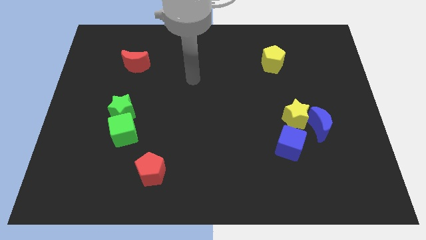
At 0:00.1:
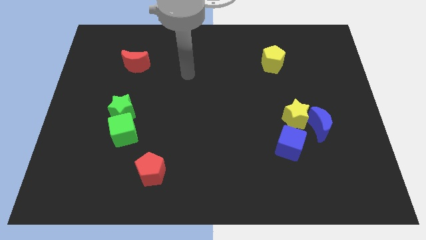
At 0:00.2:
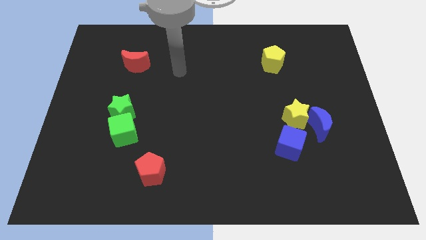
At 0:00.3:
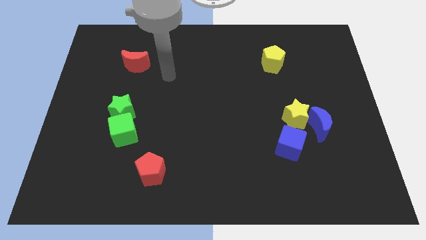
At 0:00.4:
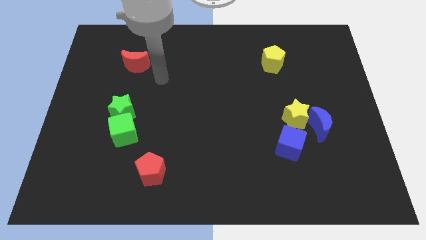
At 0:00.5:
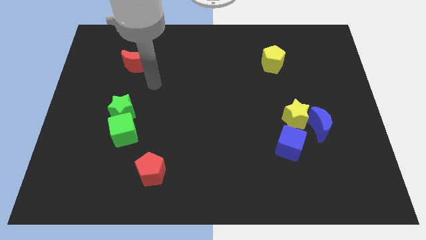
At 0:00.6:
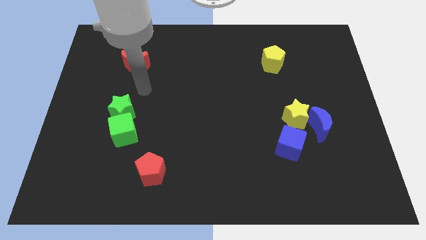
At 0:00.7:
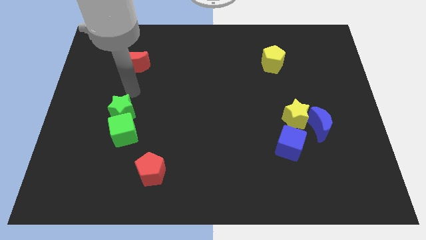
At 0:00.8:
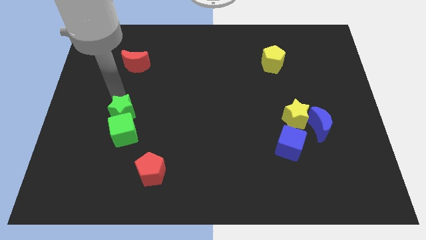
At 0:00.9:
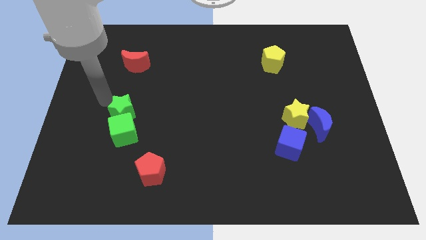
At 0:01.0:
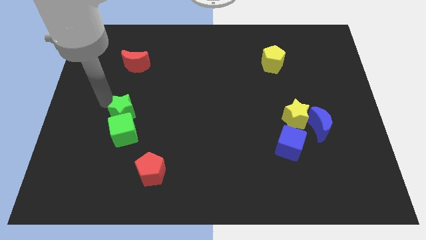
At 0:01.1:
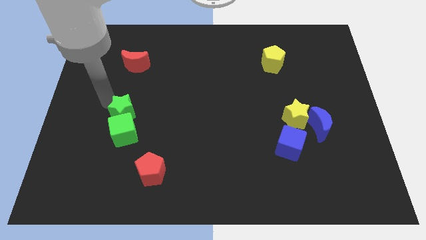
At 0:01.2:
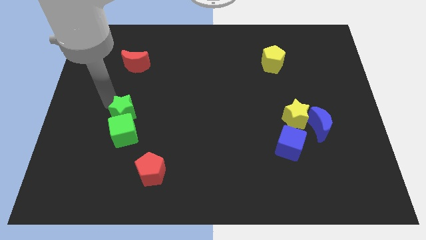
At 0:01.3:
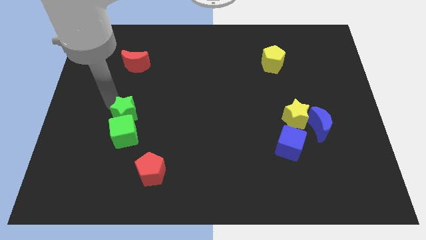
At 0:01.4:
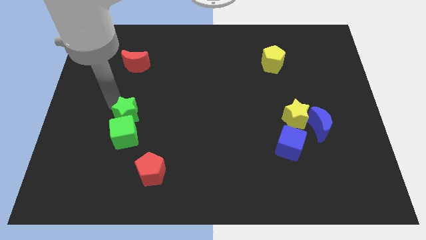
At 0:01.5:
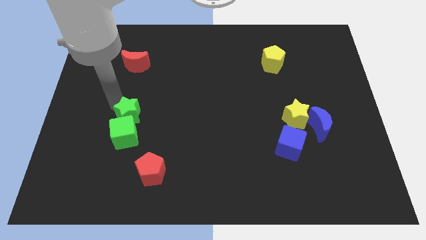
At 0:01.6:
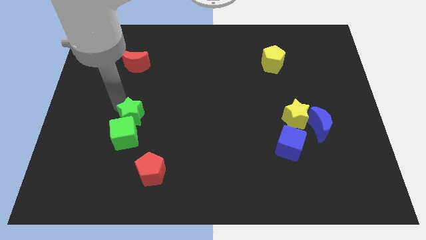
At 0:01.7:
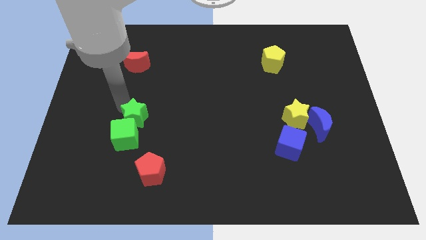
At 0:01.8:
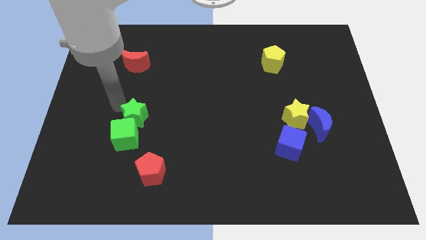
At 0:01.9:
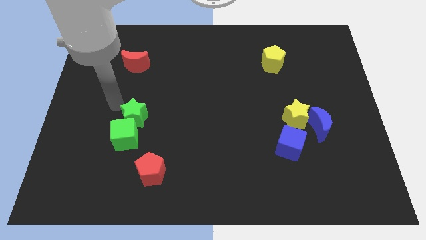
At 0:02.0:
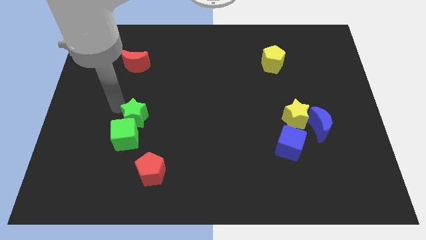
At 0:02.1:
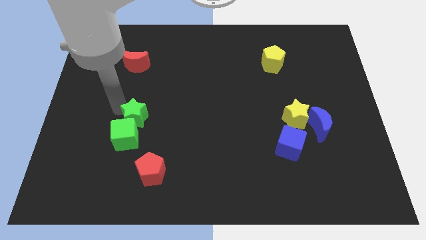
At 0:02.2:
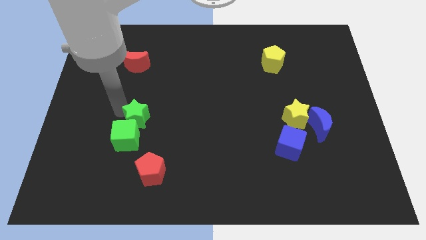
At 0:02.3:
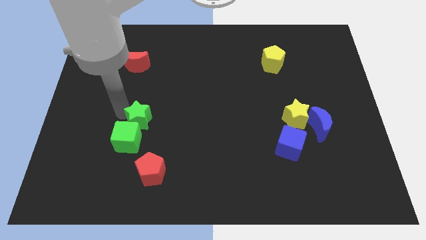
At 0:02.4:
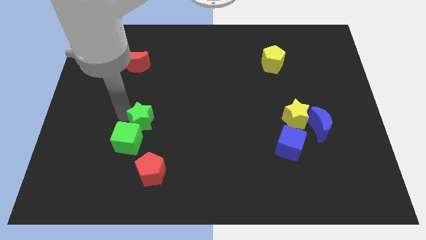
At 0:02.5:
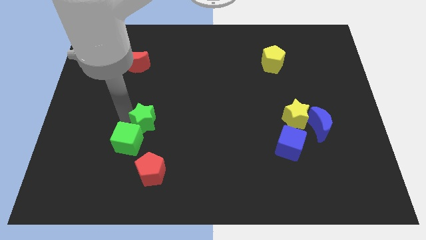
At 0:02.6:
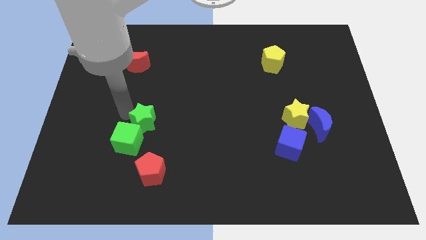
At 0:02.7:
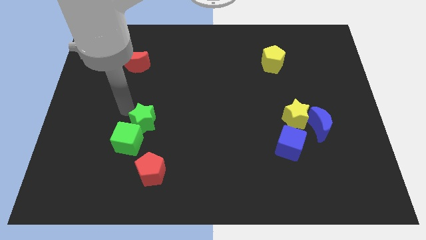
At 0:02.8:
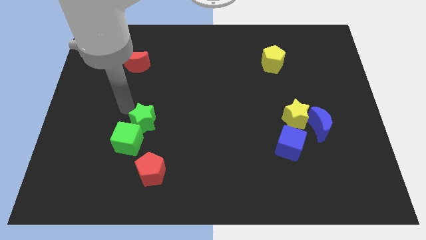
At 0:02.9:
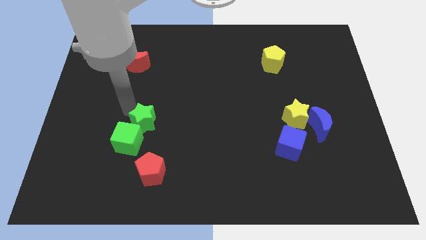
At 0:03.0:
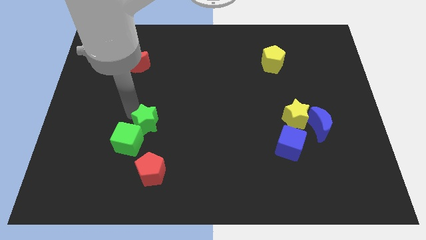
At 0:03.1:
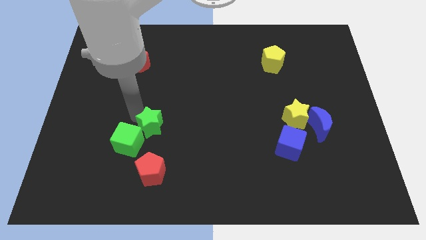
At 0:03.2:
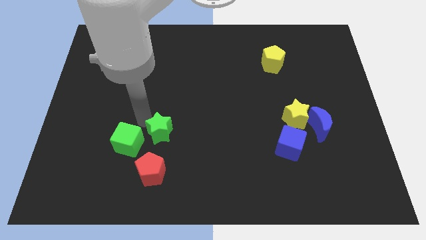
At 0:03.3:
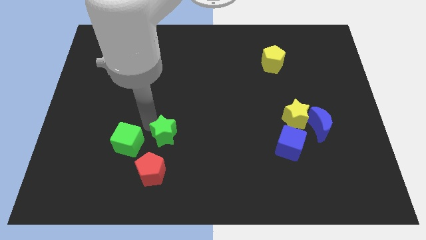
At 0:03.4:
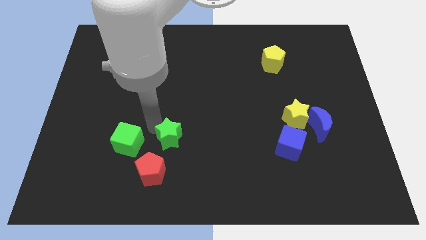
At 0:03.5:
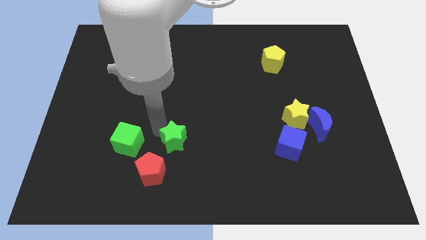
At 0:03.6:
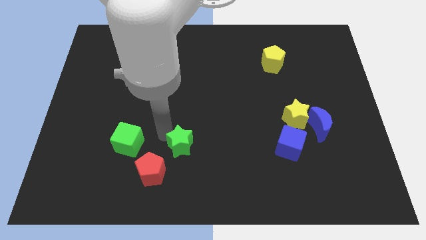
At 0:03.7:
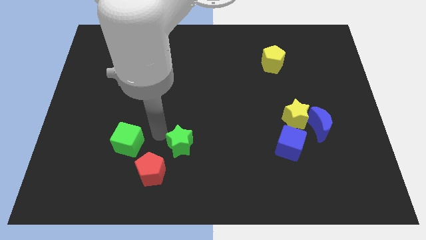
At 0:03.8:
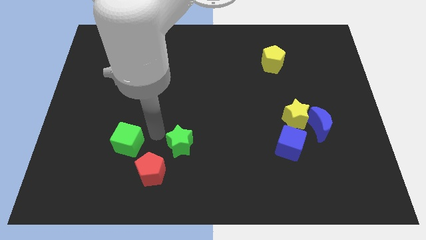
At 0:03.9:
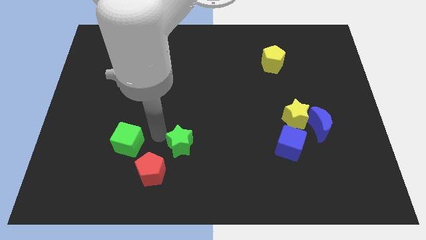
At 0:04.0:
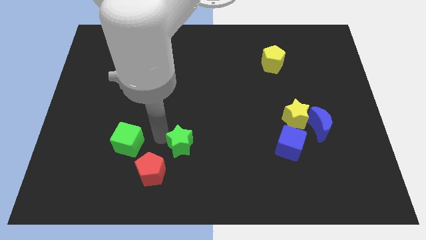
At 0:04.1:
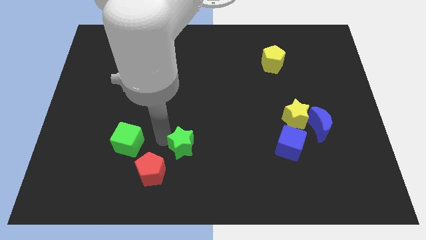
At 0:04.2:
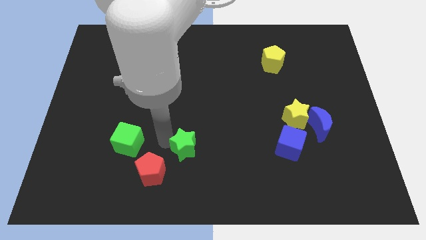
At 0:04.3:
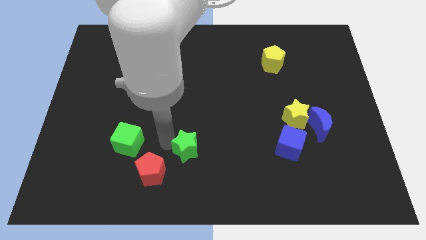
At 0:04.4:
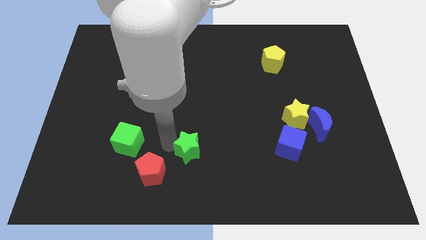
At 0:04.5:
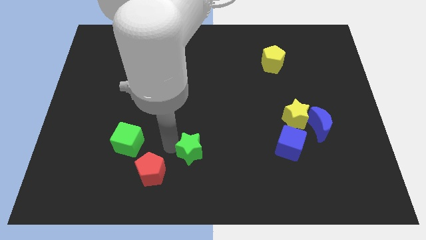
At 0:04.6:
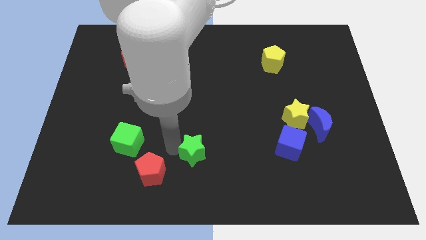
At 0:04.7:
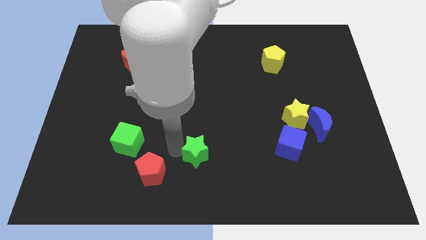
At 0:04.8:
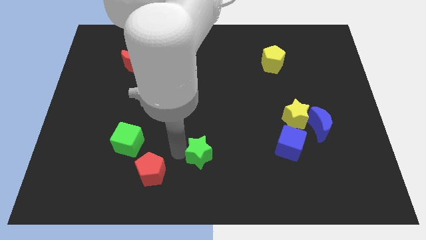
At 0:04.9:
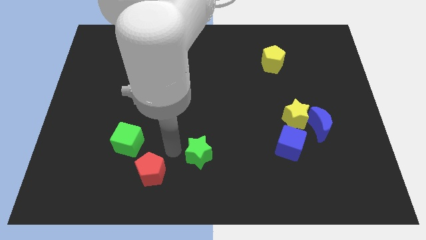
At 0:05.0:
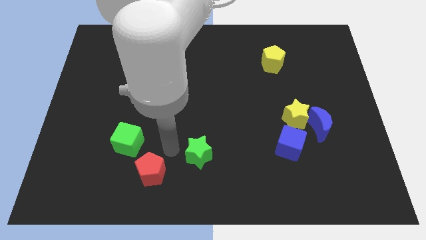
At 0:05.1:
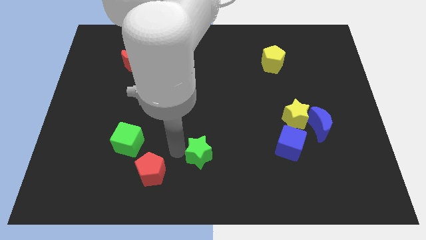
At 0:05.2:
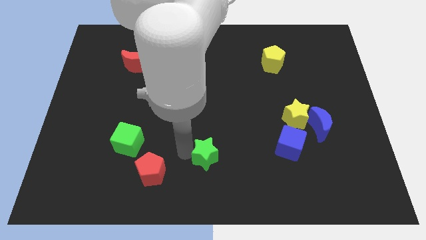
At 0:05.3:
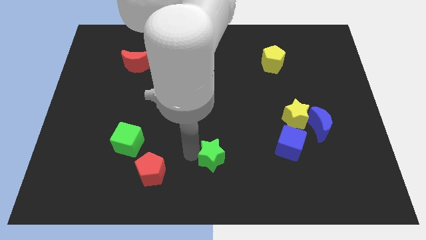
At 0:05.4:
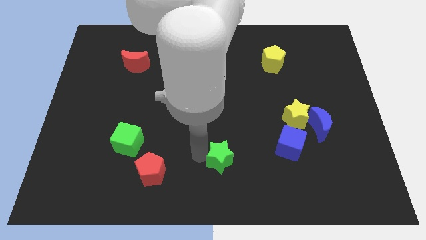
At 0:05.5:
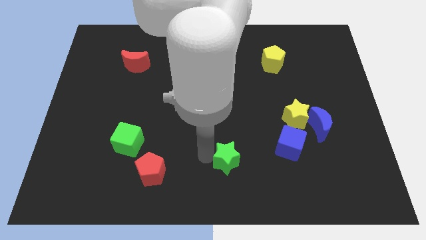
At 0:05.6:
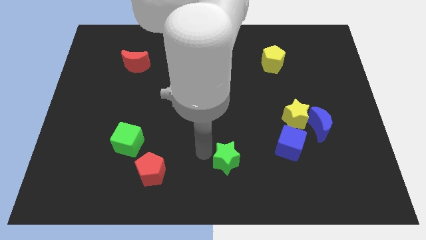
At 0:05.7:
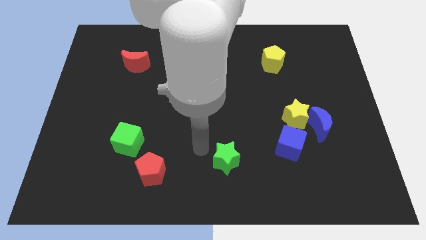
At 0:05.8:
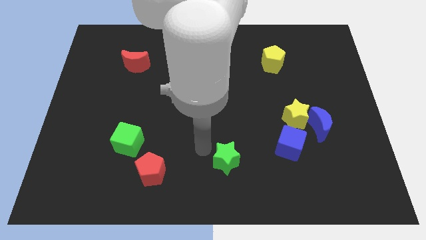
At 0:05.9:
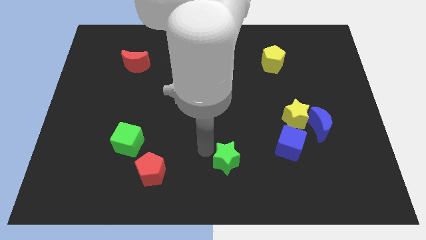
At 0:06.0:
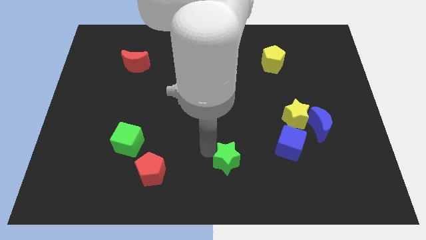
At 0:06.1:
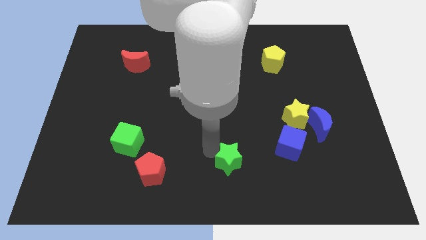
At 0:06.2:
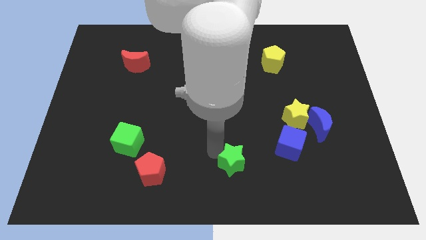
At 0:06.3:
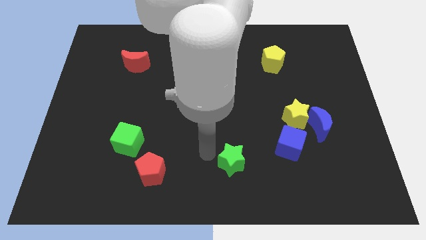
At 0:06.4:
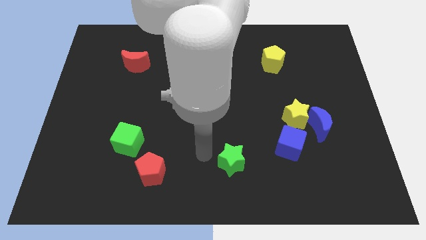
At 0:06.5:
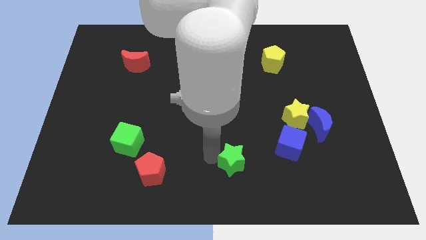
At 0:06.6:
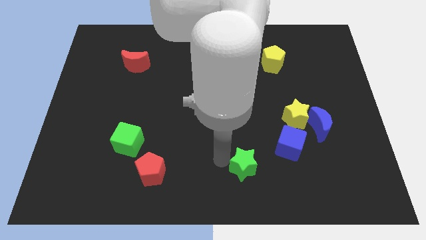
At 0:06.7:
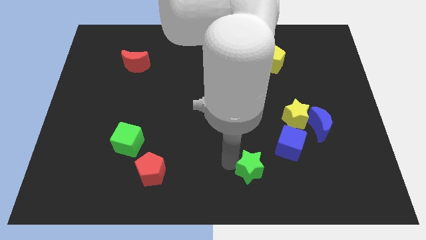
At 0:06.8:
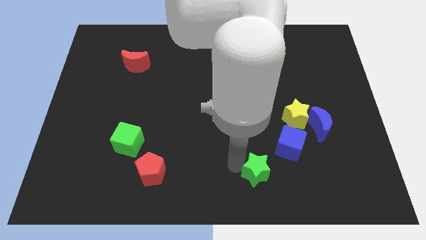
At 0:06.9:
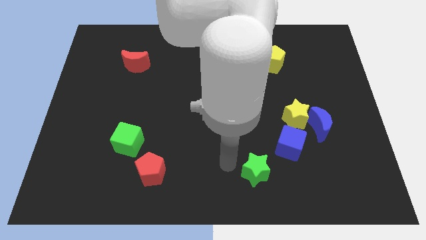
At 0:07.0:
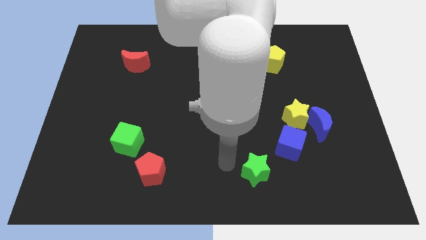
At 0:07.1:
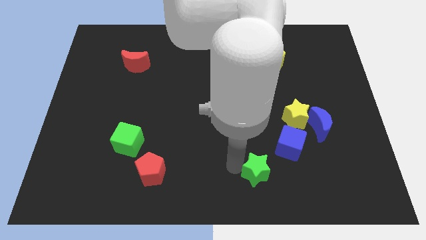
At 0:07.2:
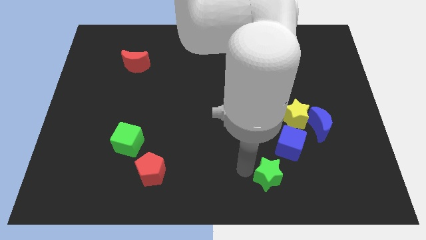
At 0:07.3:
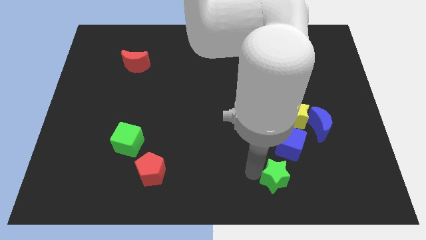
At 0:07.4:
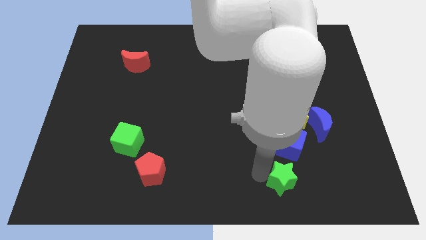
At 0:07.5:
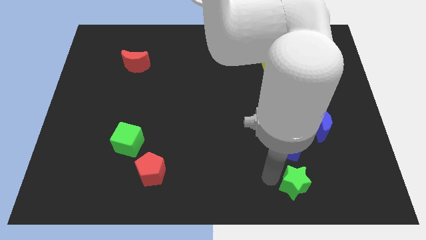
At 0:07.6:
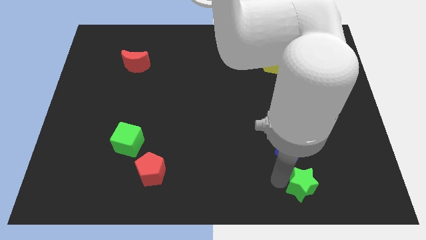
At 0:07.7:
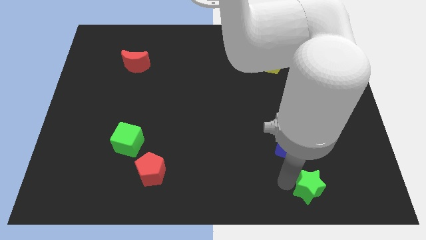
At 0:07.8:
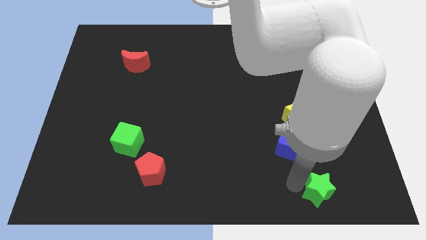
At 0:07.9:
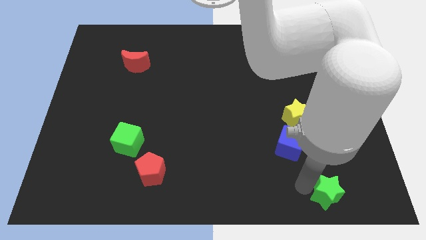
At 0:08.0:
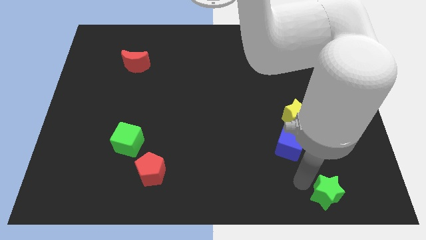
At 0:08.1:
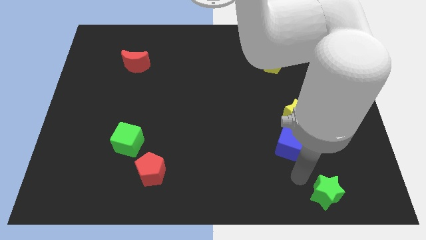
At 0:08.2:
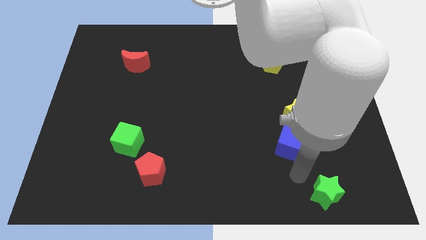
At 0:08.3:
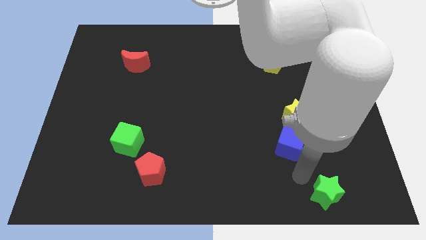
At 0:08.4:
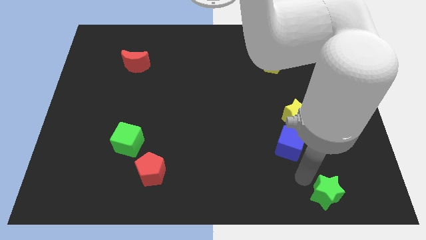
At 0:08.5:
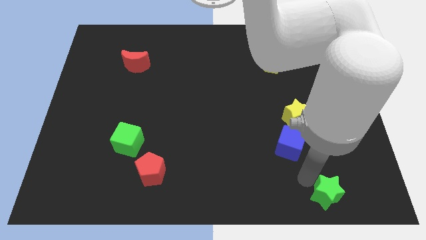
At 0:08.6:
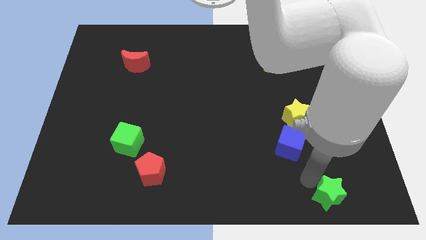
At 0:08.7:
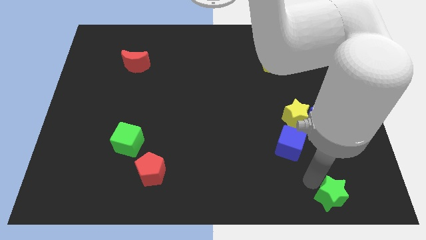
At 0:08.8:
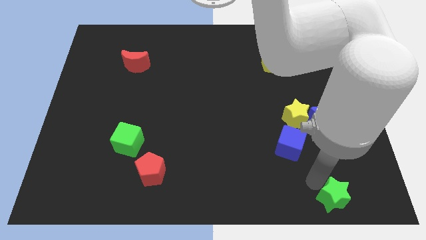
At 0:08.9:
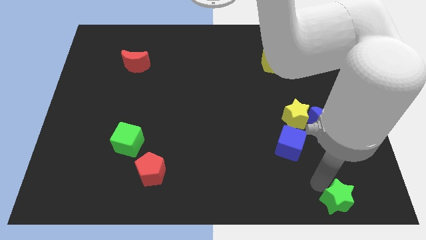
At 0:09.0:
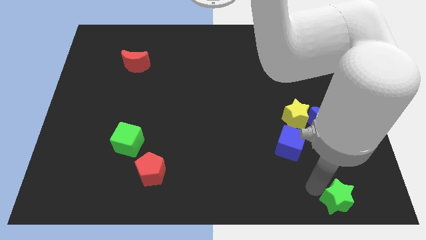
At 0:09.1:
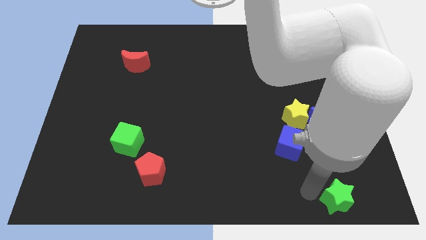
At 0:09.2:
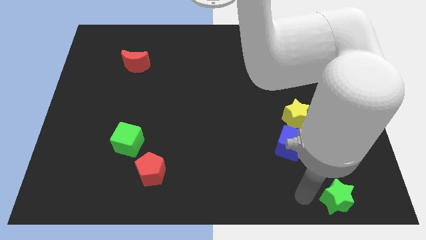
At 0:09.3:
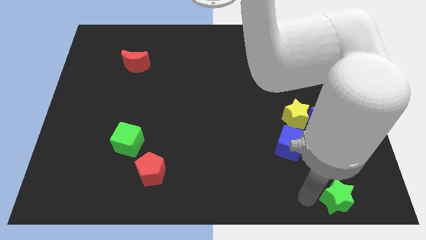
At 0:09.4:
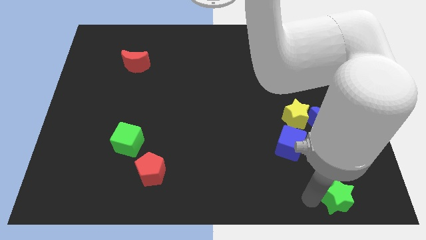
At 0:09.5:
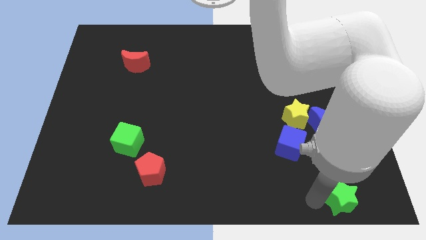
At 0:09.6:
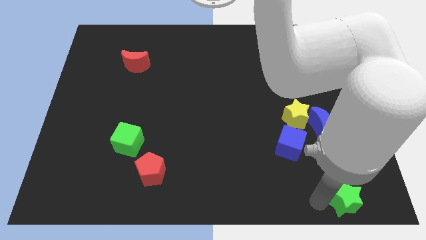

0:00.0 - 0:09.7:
move the green star to the lower right corner
